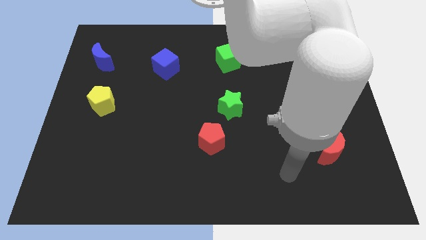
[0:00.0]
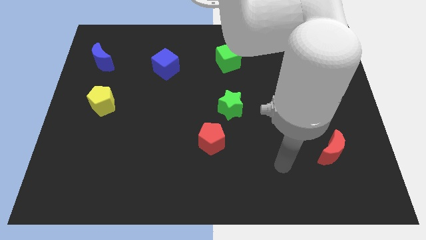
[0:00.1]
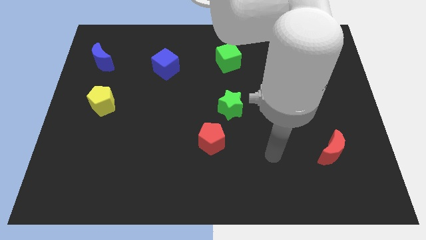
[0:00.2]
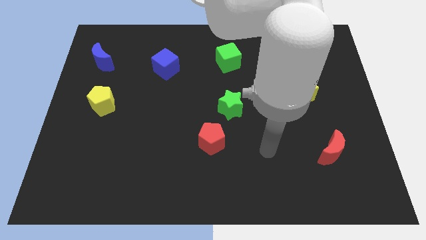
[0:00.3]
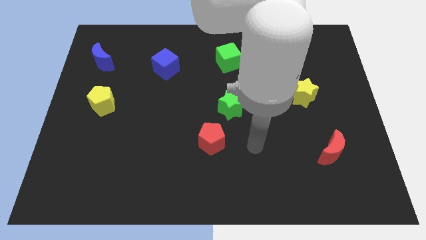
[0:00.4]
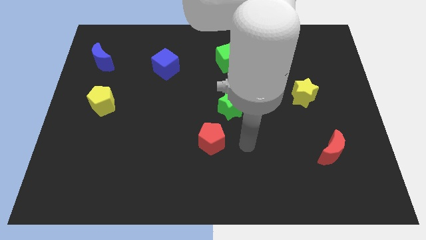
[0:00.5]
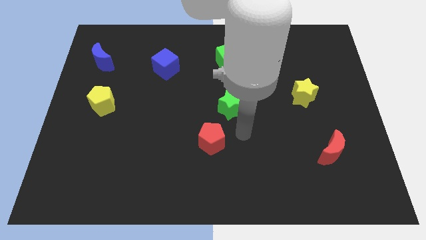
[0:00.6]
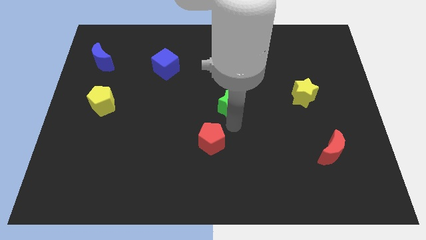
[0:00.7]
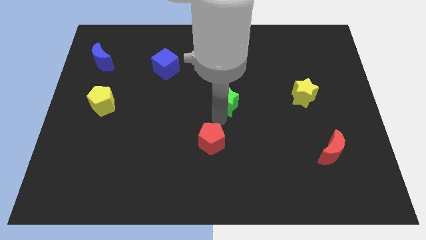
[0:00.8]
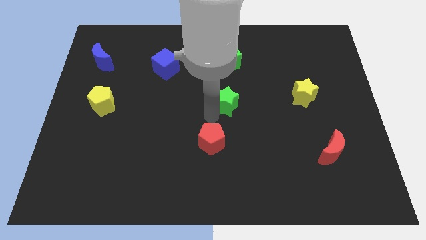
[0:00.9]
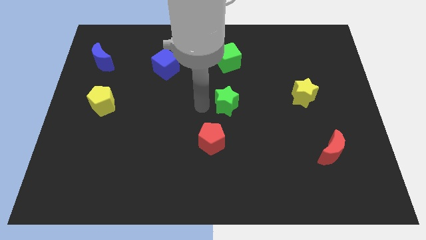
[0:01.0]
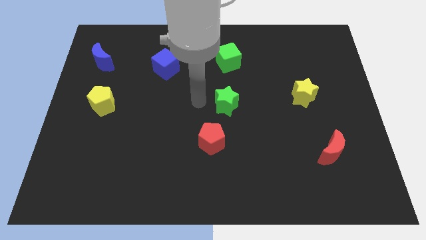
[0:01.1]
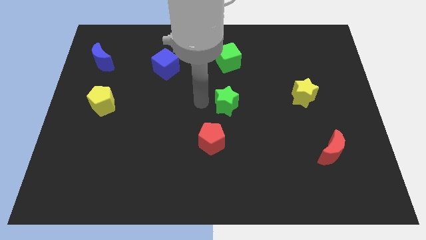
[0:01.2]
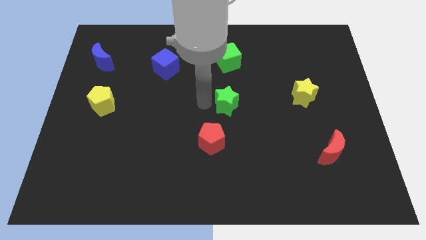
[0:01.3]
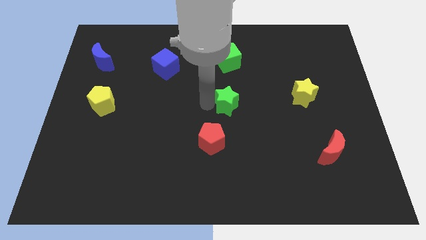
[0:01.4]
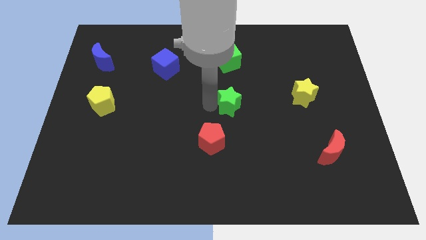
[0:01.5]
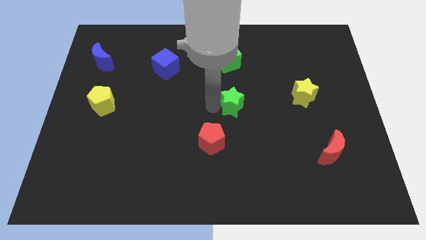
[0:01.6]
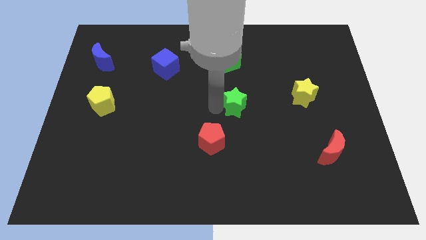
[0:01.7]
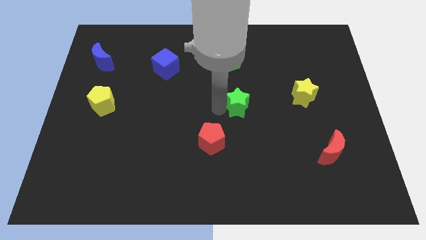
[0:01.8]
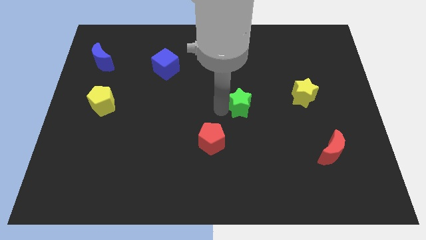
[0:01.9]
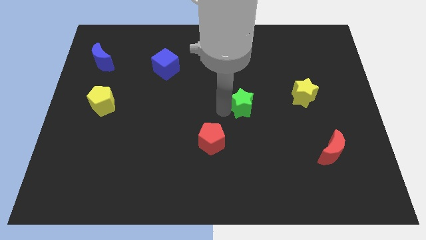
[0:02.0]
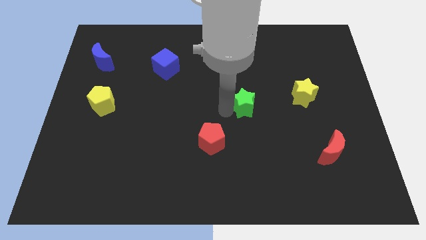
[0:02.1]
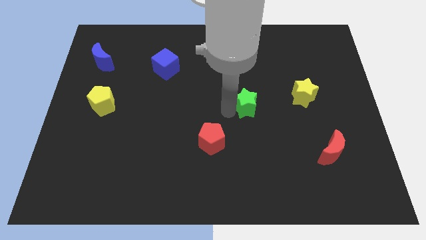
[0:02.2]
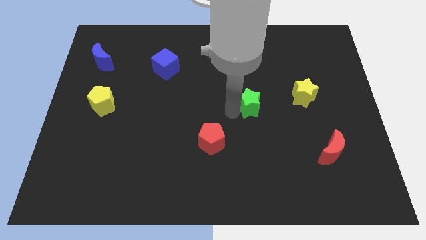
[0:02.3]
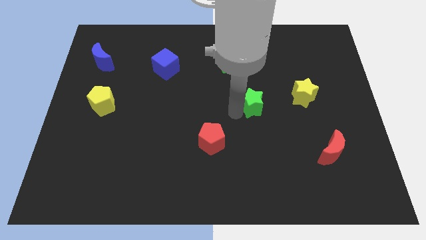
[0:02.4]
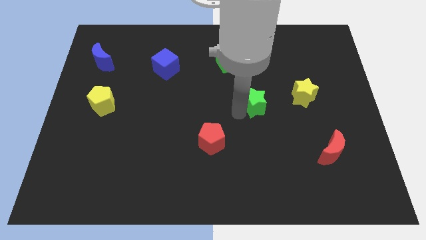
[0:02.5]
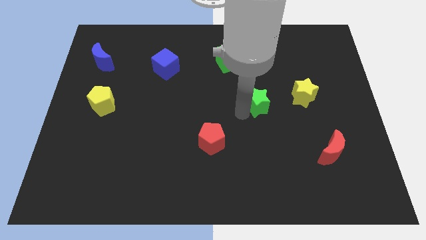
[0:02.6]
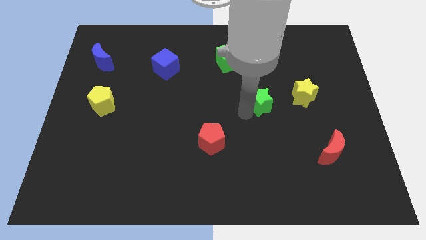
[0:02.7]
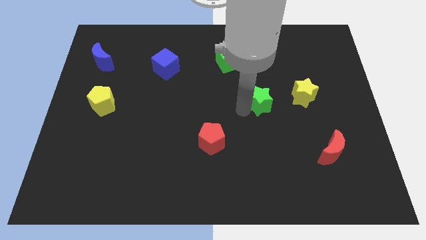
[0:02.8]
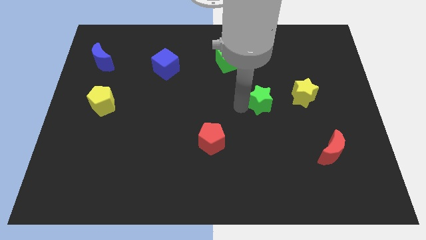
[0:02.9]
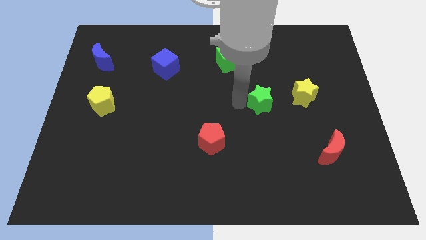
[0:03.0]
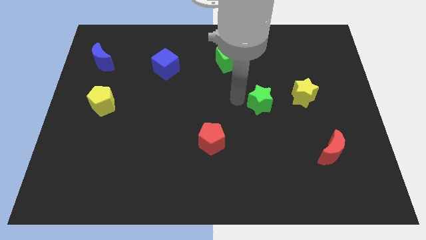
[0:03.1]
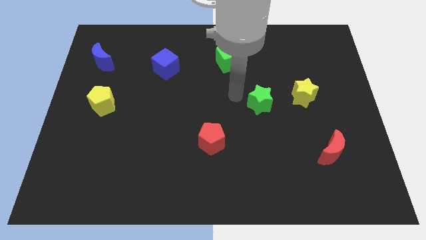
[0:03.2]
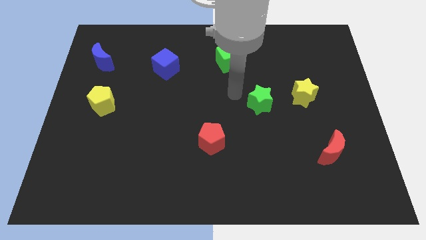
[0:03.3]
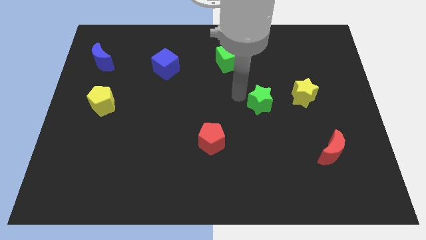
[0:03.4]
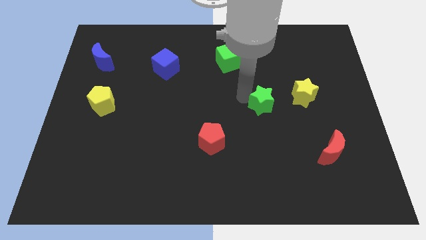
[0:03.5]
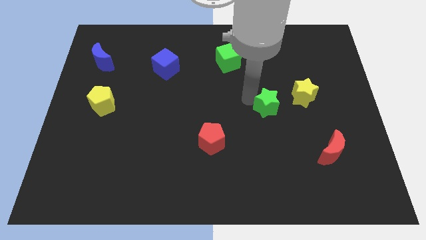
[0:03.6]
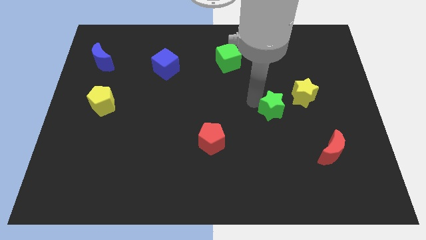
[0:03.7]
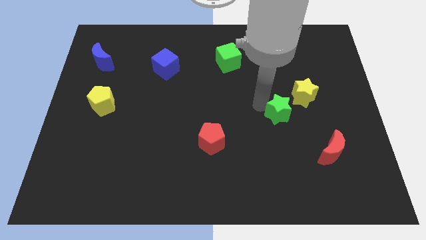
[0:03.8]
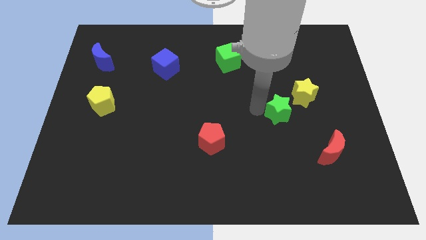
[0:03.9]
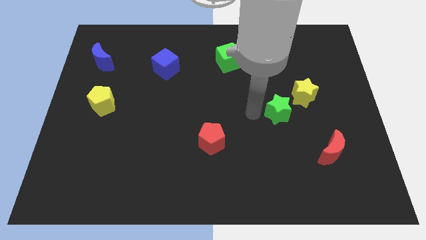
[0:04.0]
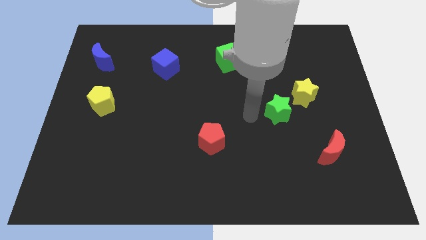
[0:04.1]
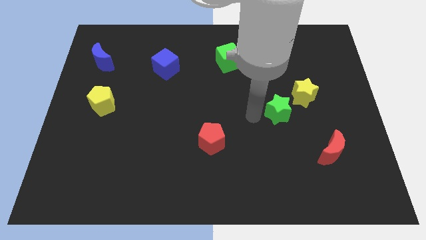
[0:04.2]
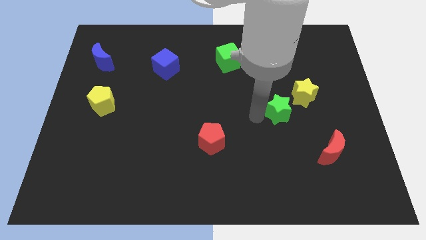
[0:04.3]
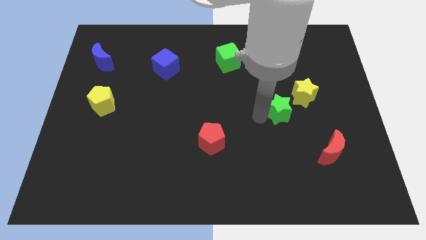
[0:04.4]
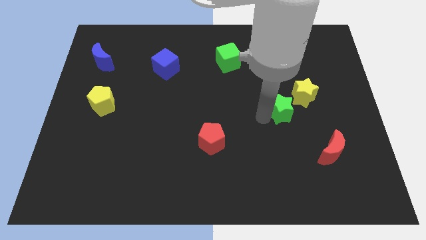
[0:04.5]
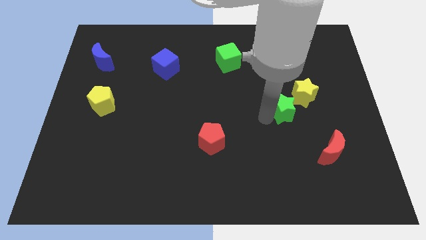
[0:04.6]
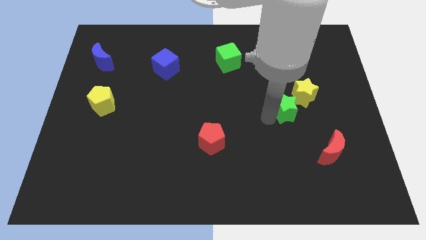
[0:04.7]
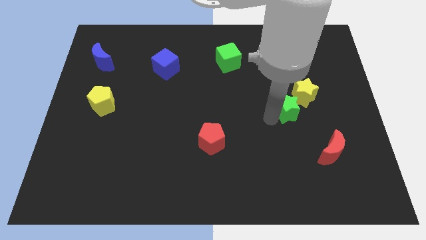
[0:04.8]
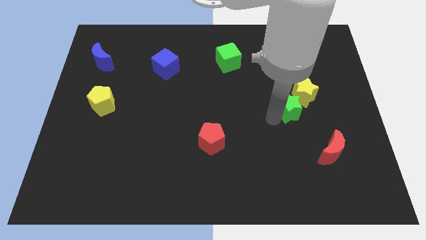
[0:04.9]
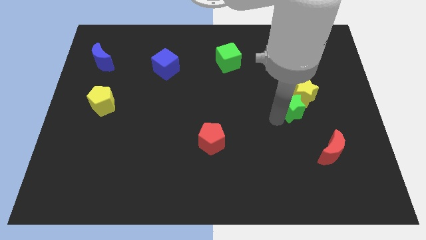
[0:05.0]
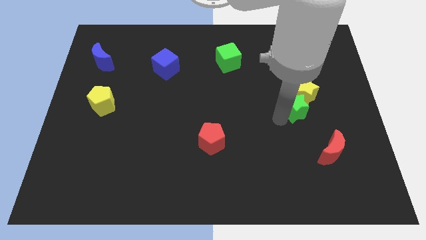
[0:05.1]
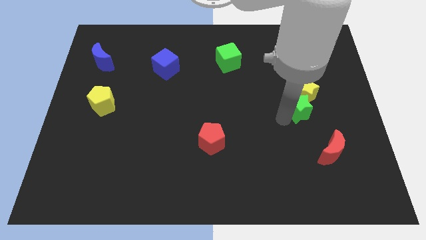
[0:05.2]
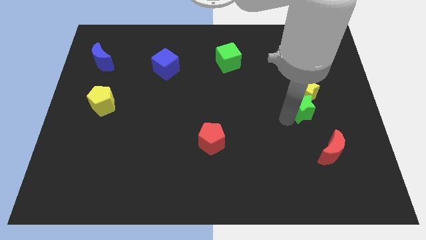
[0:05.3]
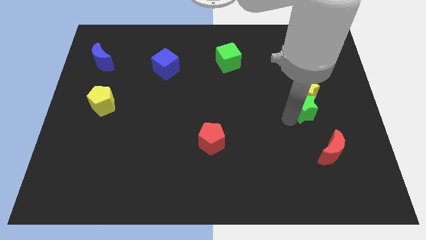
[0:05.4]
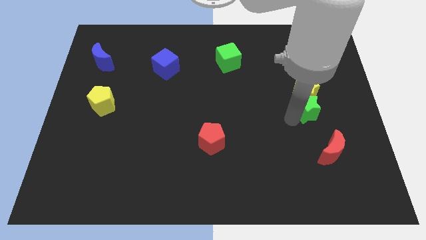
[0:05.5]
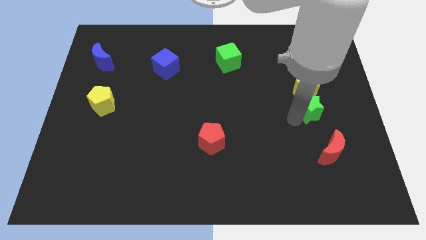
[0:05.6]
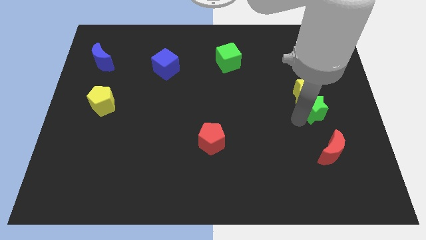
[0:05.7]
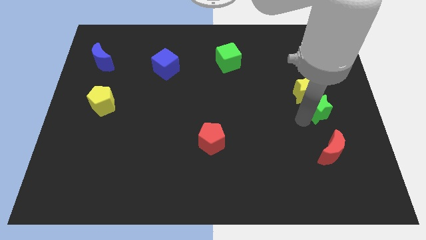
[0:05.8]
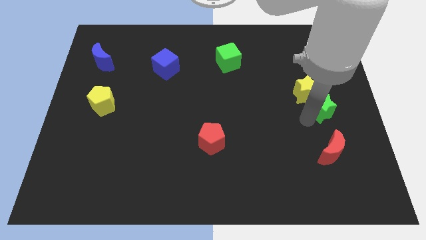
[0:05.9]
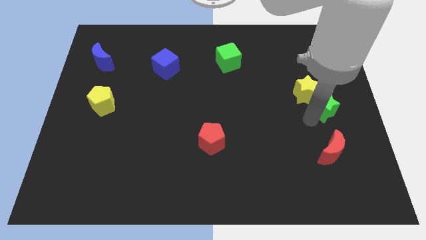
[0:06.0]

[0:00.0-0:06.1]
push the green star to the center right
